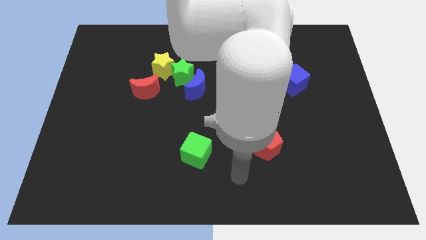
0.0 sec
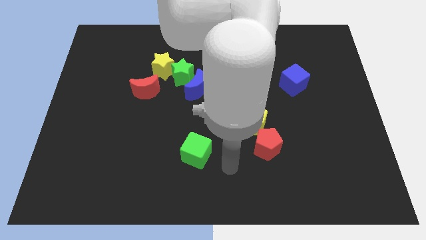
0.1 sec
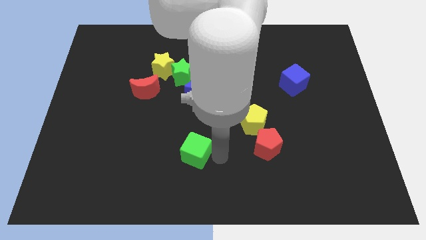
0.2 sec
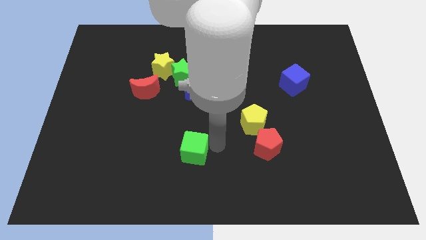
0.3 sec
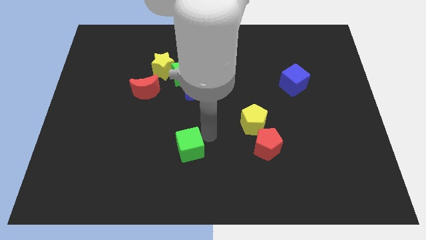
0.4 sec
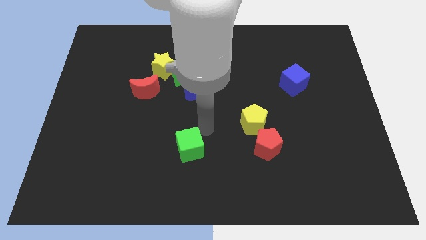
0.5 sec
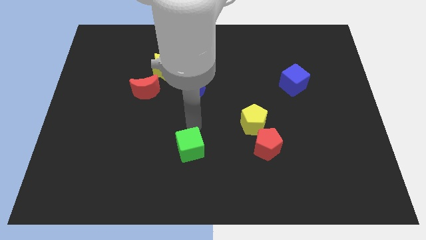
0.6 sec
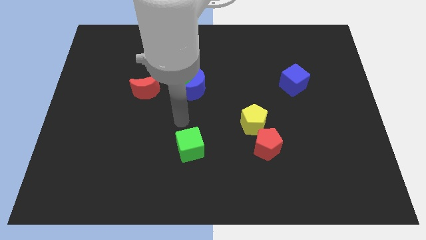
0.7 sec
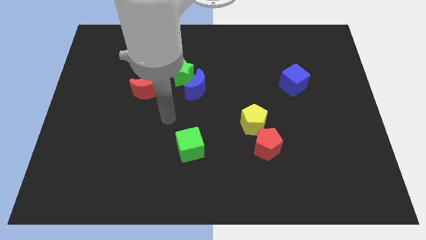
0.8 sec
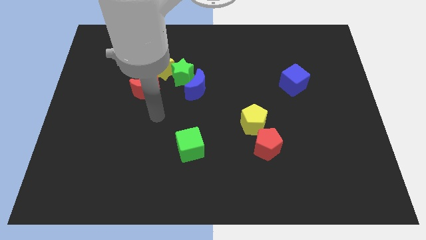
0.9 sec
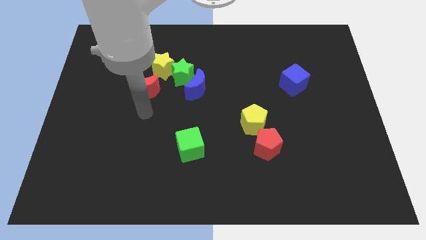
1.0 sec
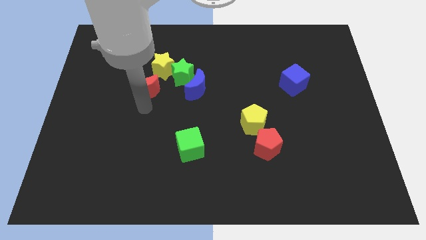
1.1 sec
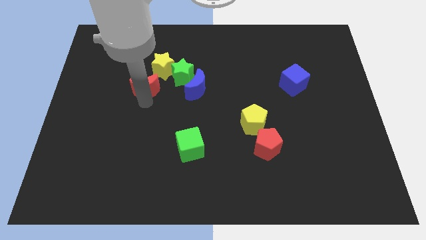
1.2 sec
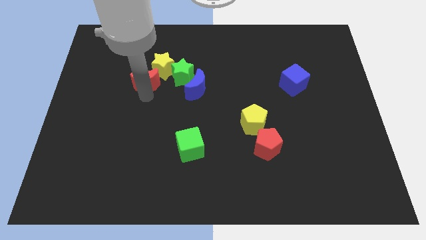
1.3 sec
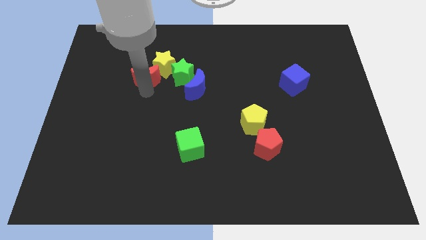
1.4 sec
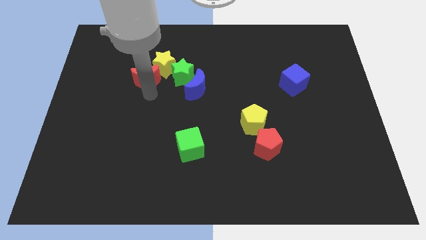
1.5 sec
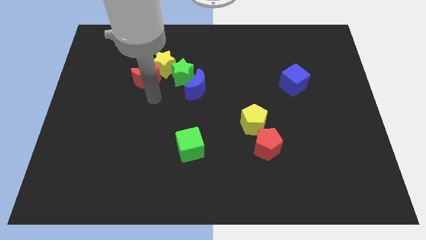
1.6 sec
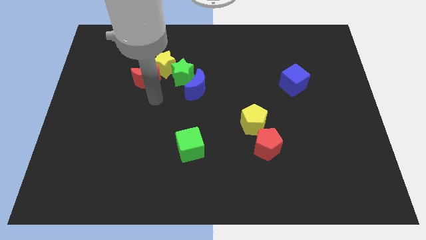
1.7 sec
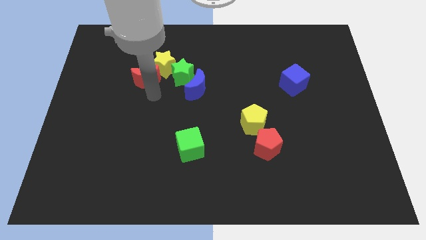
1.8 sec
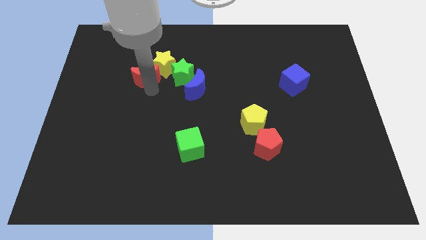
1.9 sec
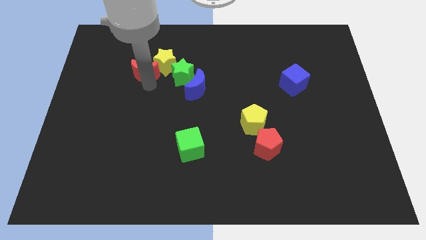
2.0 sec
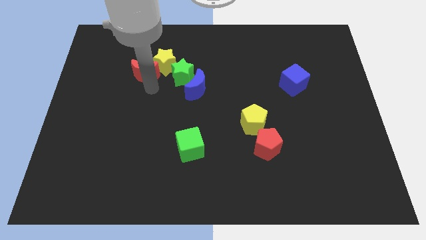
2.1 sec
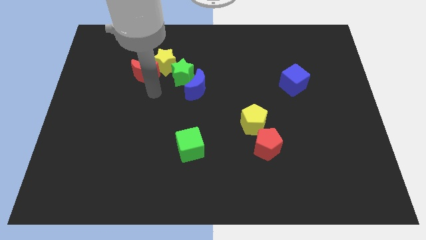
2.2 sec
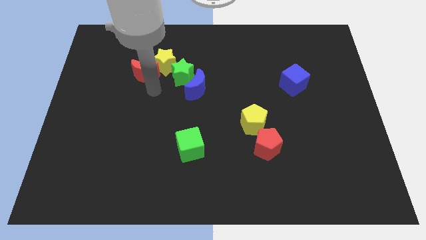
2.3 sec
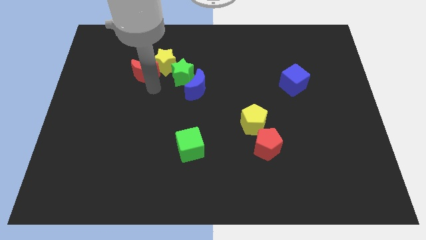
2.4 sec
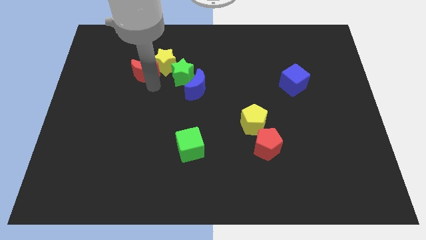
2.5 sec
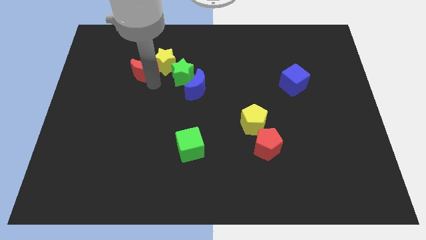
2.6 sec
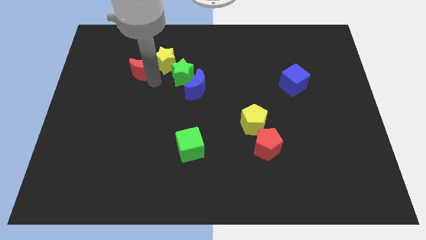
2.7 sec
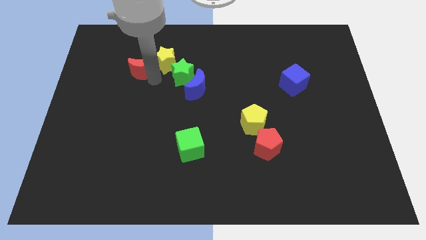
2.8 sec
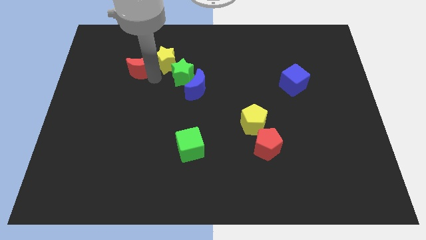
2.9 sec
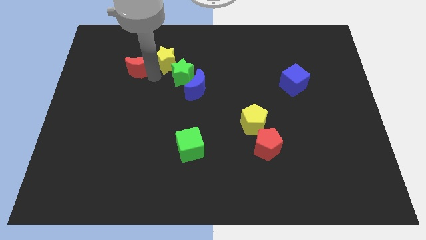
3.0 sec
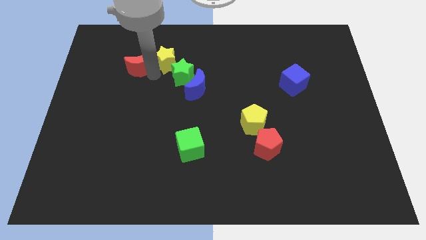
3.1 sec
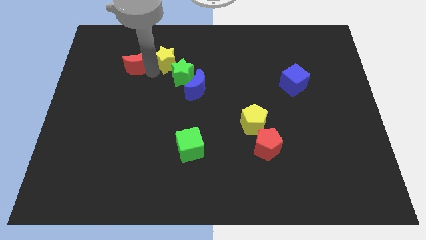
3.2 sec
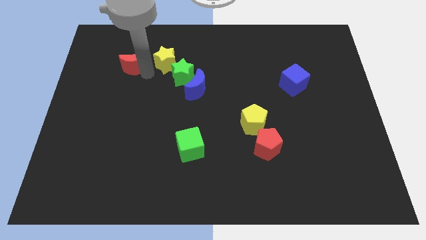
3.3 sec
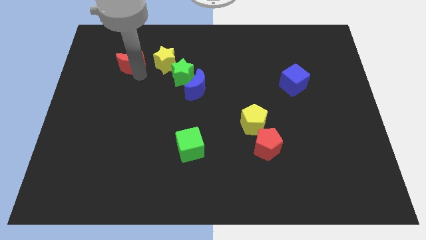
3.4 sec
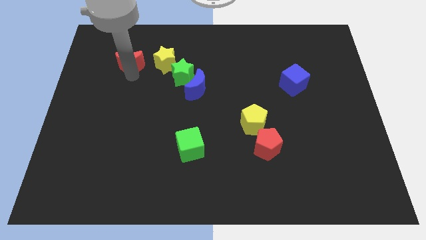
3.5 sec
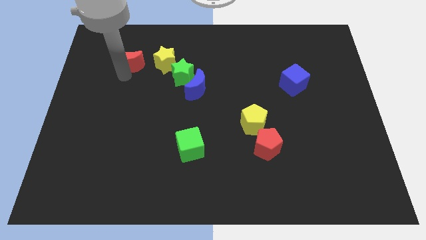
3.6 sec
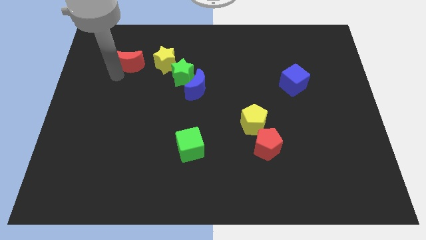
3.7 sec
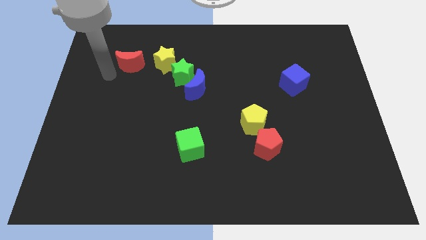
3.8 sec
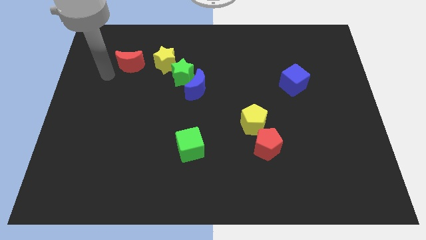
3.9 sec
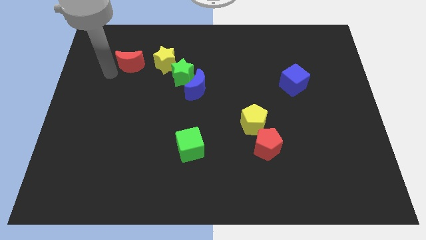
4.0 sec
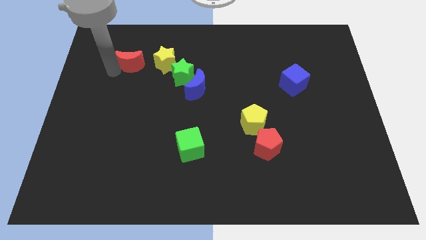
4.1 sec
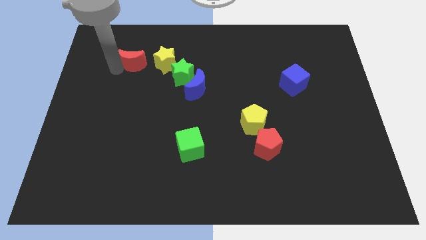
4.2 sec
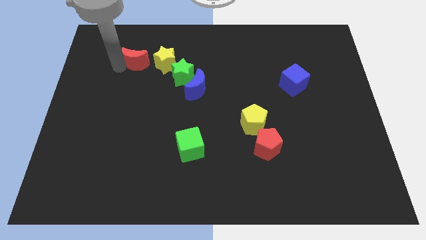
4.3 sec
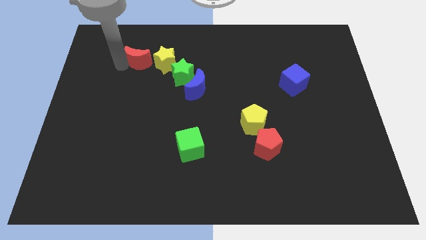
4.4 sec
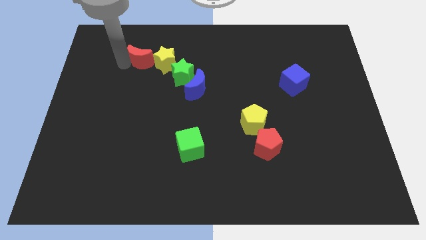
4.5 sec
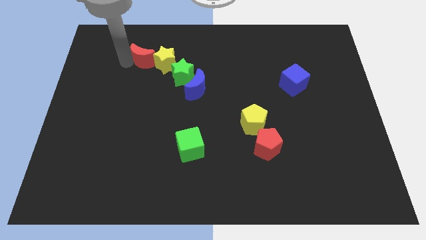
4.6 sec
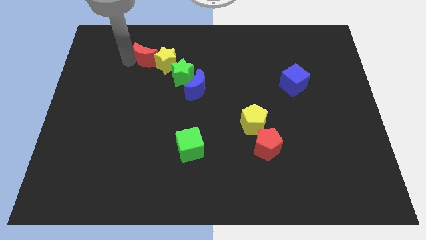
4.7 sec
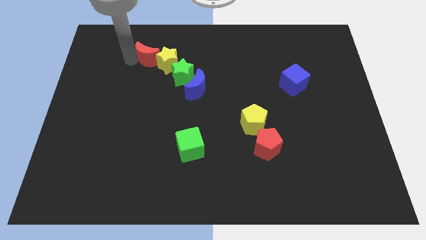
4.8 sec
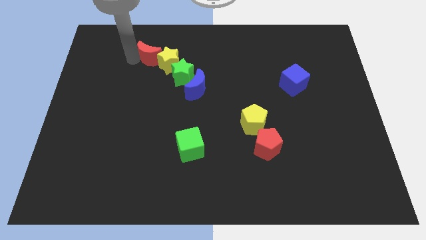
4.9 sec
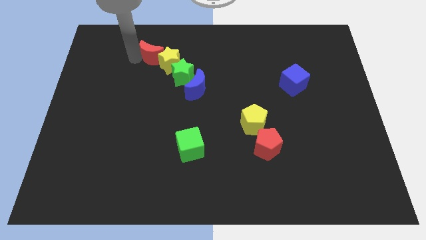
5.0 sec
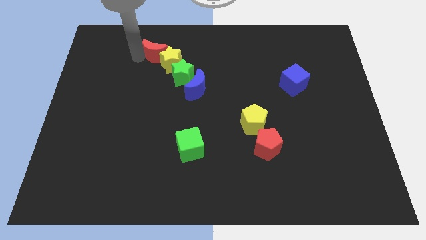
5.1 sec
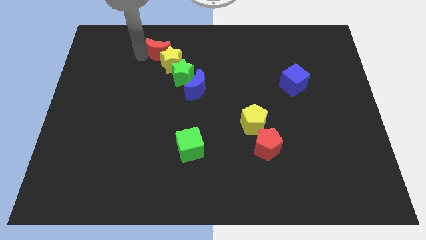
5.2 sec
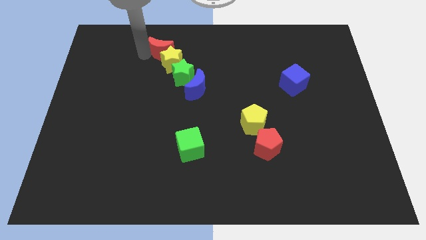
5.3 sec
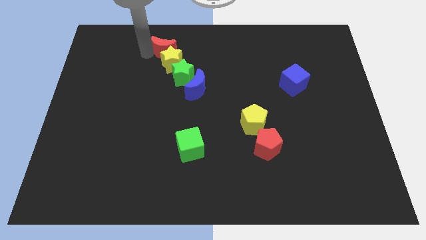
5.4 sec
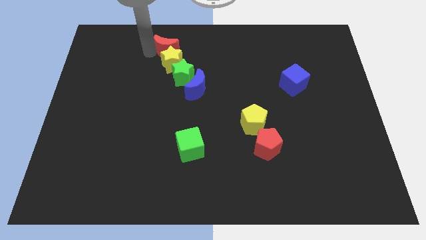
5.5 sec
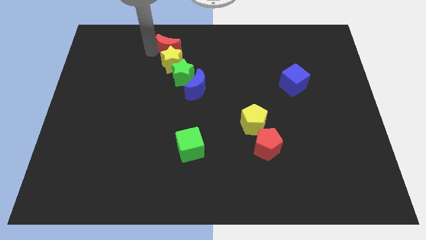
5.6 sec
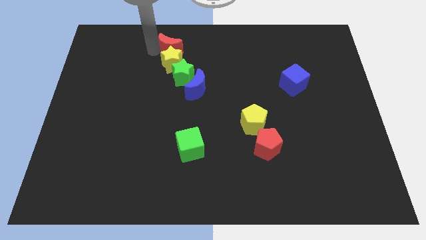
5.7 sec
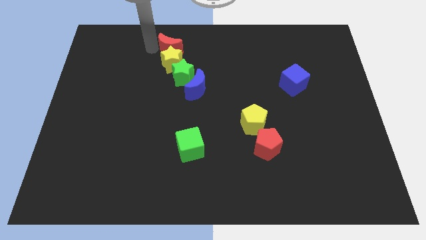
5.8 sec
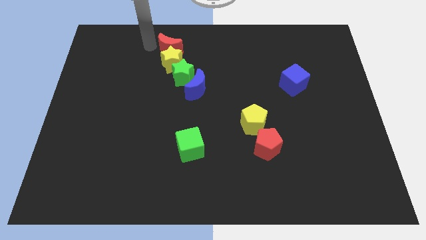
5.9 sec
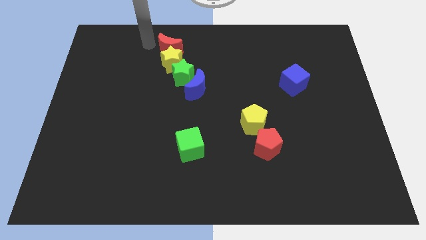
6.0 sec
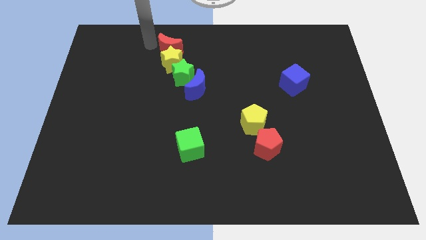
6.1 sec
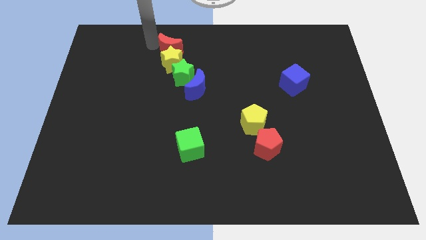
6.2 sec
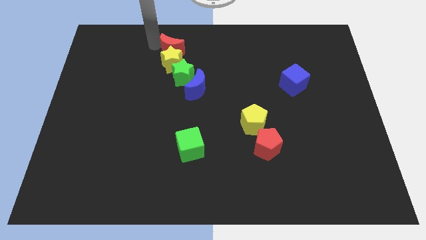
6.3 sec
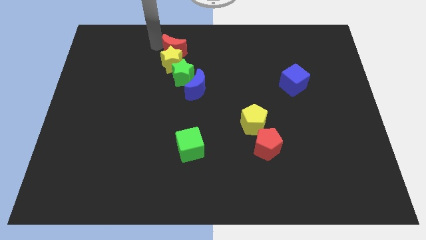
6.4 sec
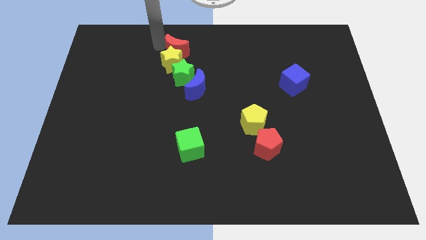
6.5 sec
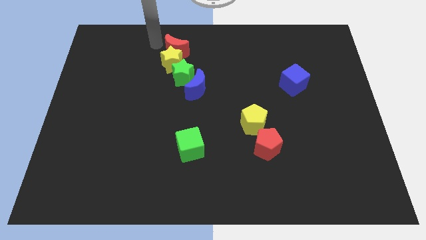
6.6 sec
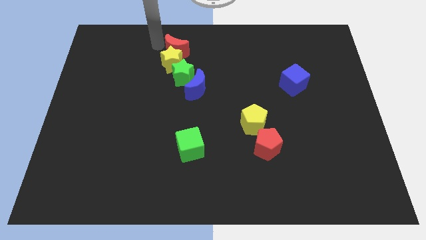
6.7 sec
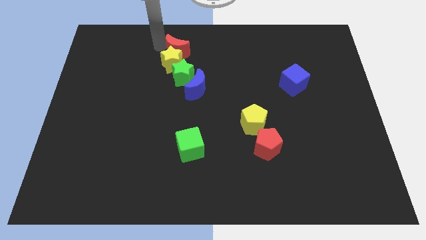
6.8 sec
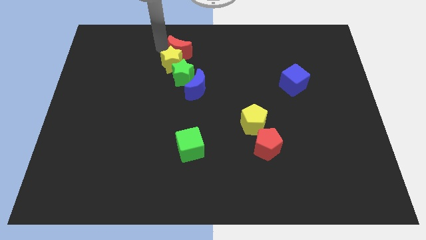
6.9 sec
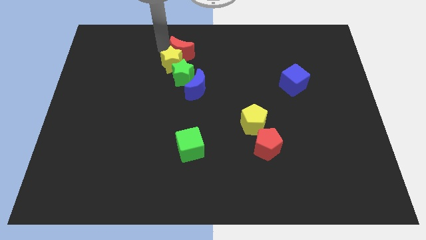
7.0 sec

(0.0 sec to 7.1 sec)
slide the red moon above the blue moon

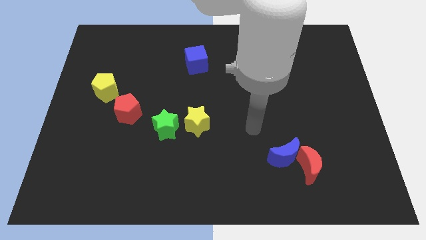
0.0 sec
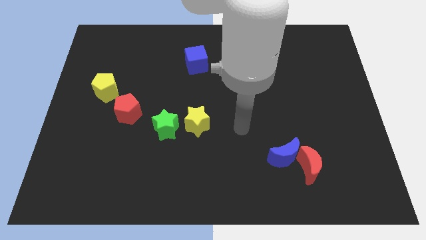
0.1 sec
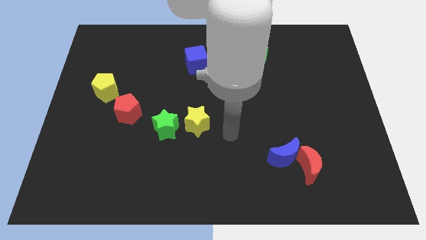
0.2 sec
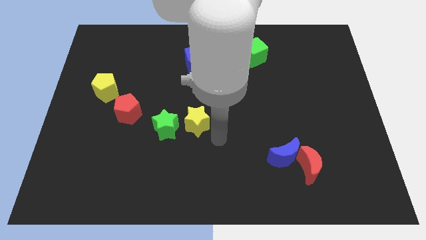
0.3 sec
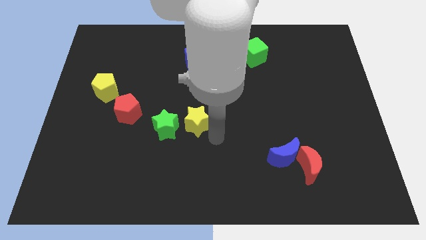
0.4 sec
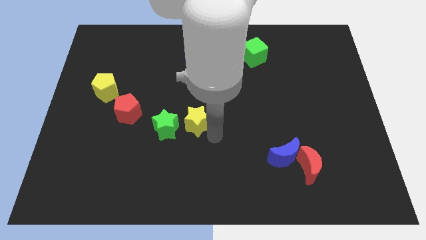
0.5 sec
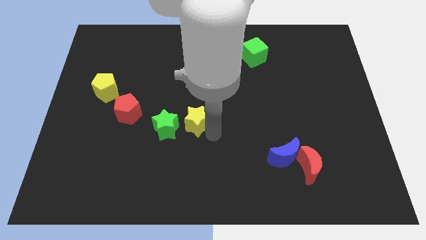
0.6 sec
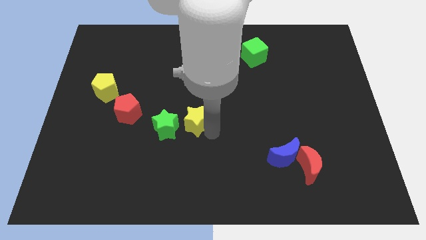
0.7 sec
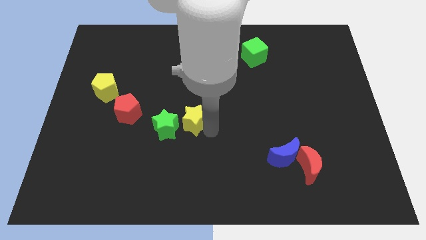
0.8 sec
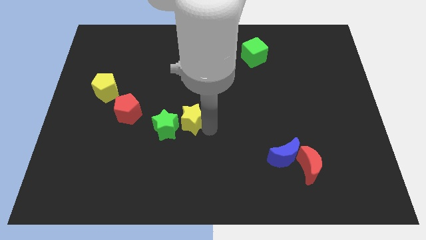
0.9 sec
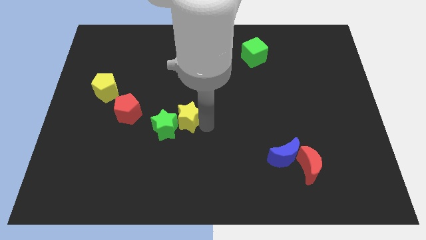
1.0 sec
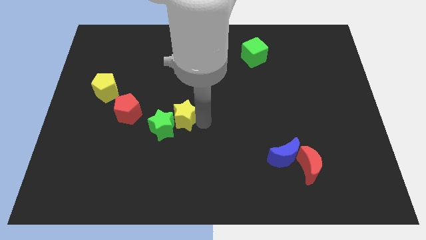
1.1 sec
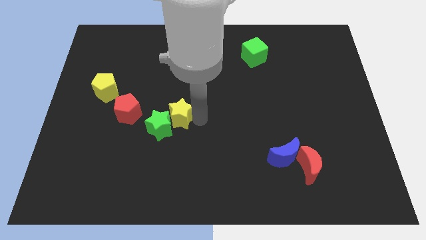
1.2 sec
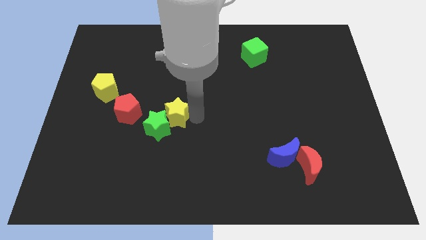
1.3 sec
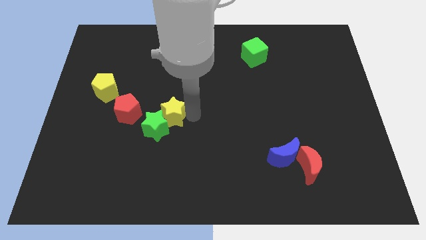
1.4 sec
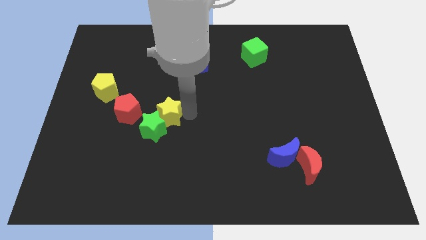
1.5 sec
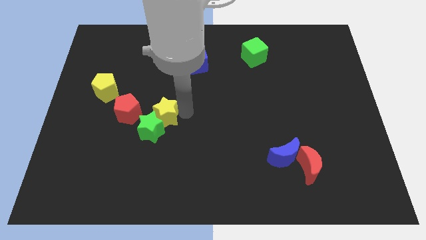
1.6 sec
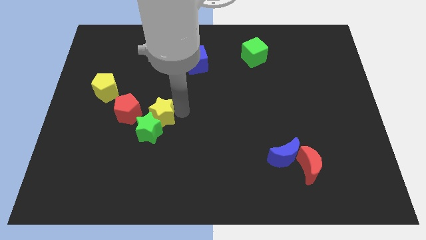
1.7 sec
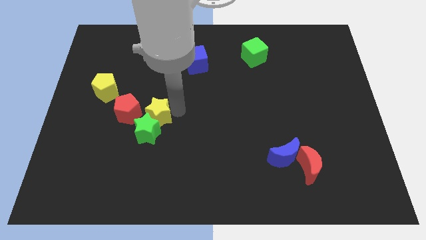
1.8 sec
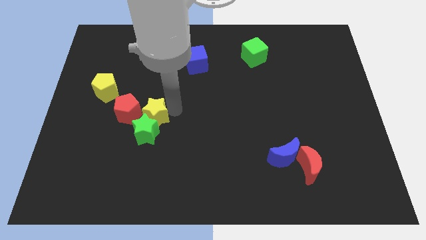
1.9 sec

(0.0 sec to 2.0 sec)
move the yellow star to the top left of the green star
